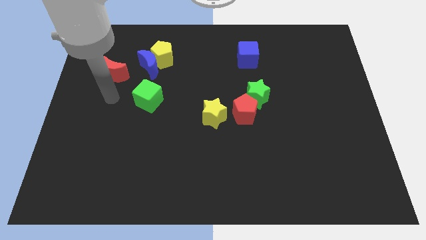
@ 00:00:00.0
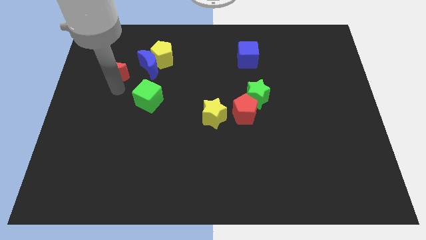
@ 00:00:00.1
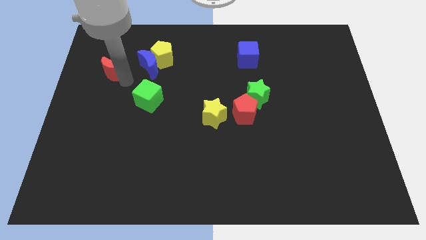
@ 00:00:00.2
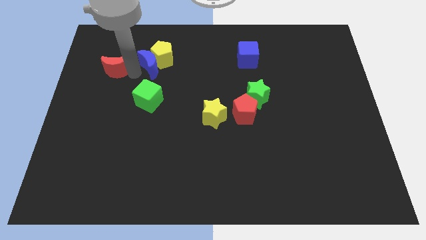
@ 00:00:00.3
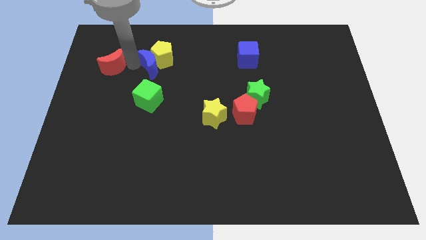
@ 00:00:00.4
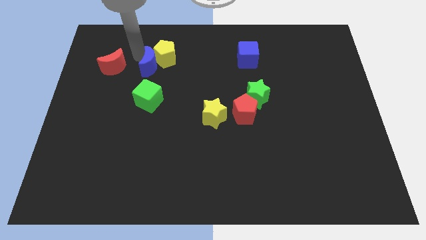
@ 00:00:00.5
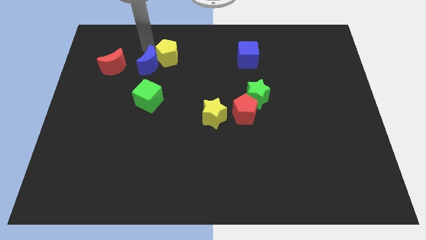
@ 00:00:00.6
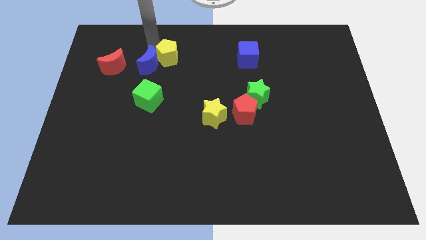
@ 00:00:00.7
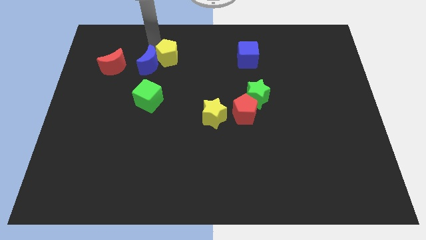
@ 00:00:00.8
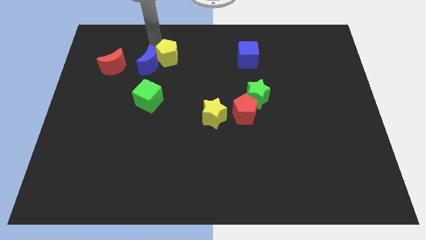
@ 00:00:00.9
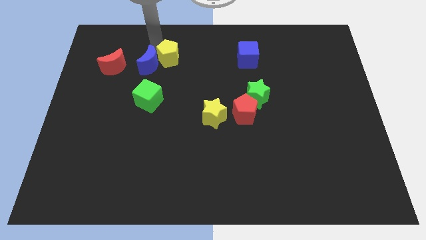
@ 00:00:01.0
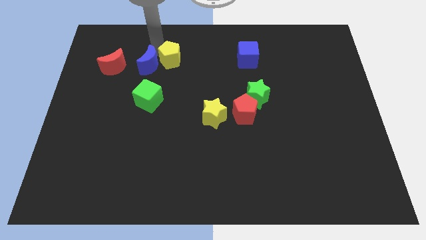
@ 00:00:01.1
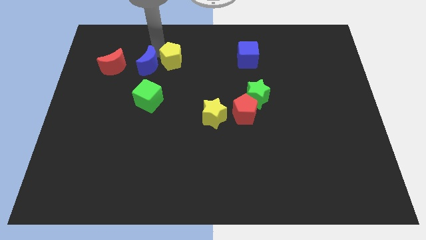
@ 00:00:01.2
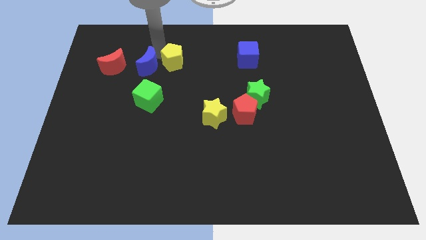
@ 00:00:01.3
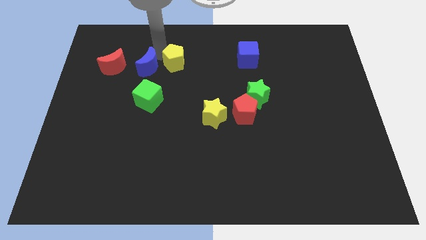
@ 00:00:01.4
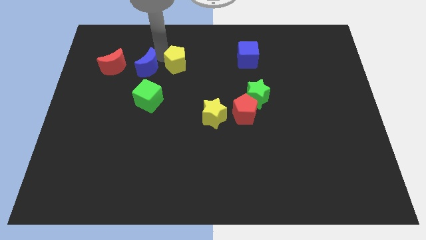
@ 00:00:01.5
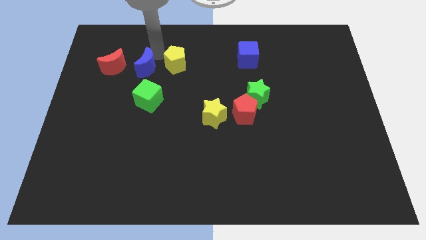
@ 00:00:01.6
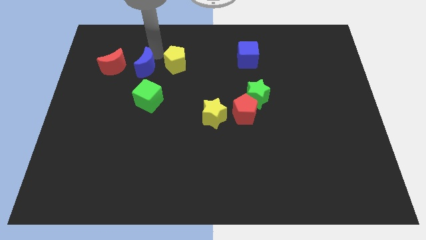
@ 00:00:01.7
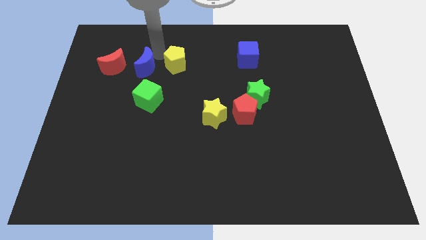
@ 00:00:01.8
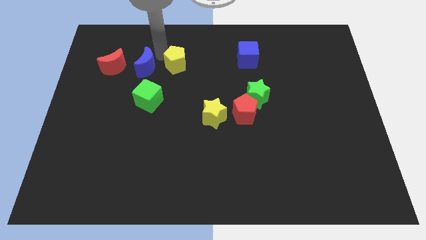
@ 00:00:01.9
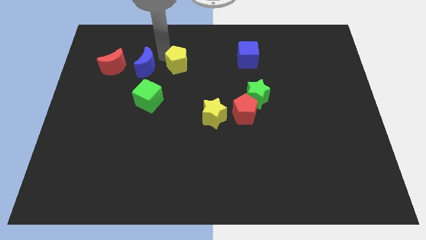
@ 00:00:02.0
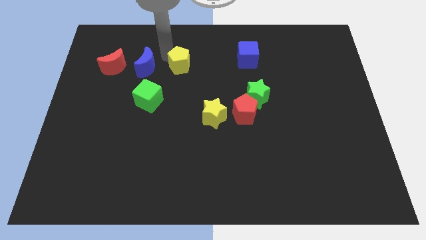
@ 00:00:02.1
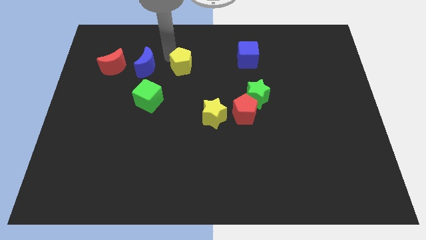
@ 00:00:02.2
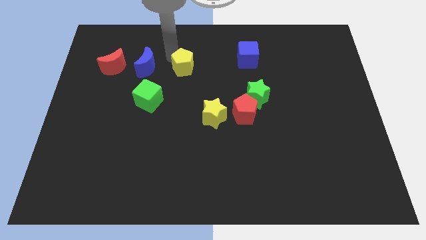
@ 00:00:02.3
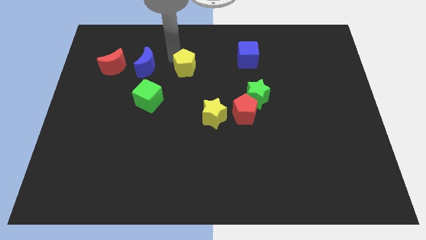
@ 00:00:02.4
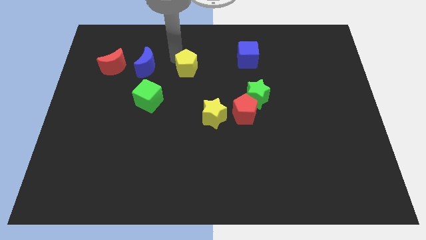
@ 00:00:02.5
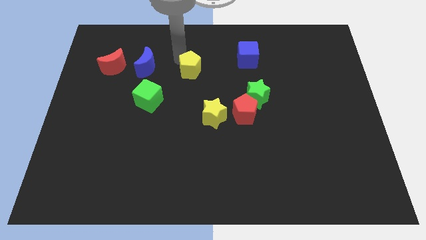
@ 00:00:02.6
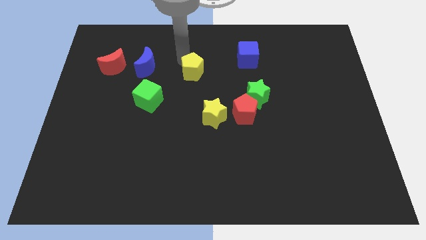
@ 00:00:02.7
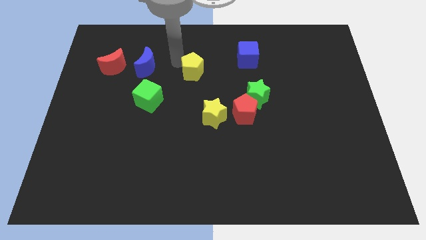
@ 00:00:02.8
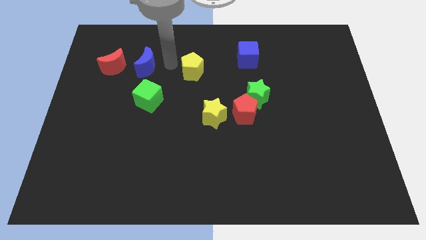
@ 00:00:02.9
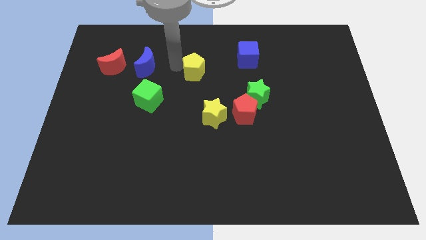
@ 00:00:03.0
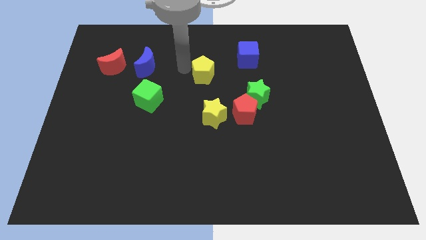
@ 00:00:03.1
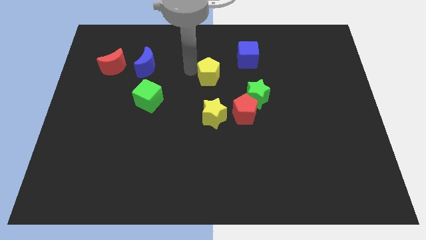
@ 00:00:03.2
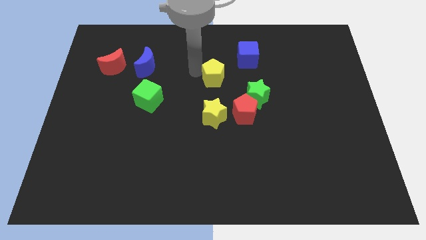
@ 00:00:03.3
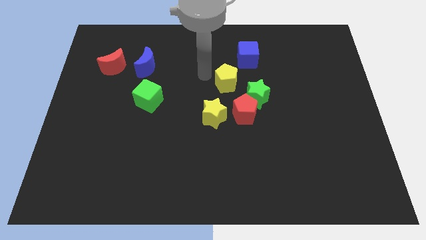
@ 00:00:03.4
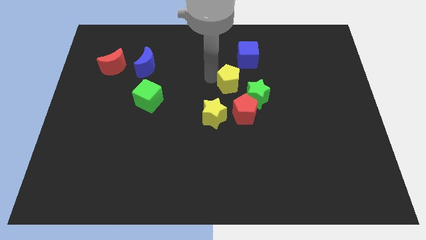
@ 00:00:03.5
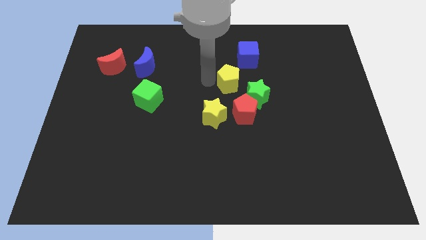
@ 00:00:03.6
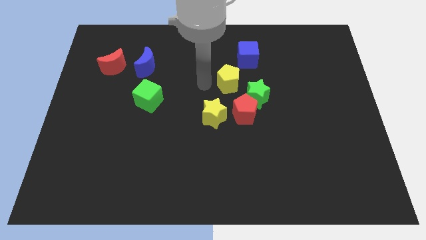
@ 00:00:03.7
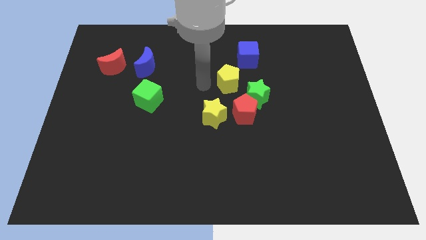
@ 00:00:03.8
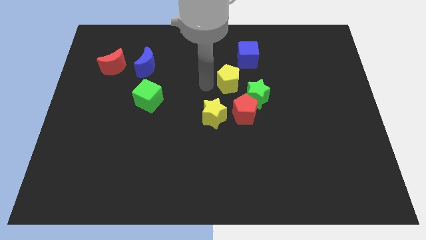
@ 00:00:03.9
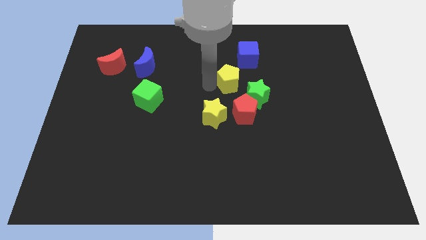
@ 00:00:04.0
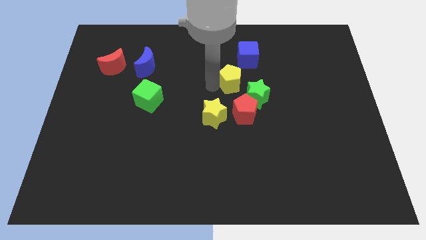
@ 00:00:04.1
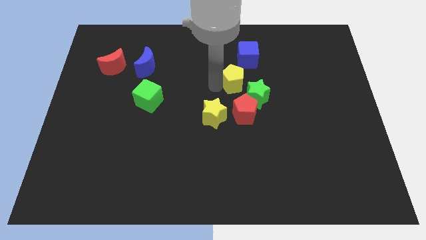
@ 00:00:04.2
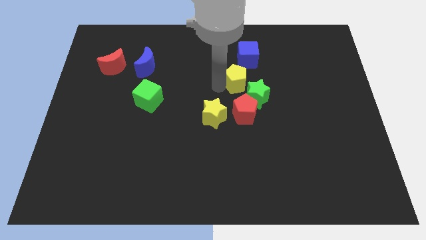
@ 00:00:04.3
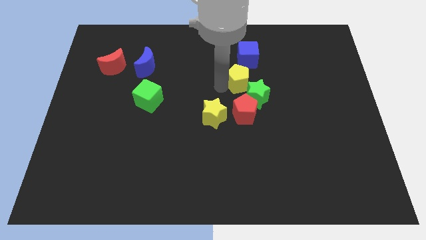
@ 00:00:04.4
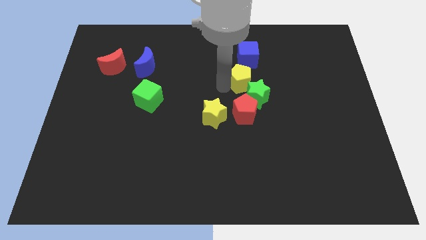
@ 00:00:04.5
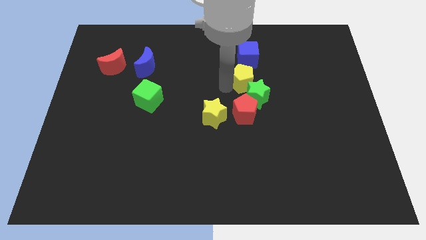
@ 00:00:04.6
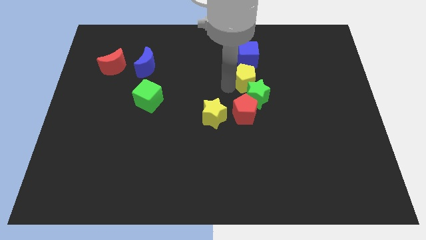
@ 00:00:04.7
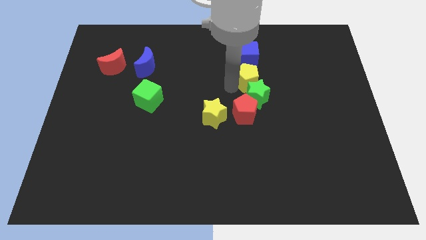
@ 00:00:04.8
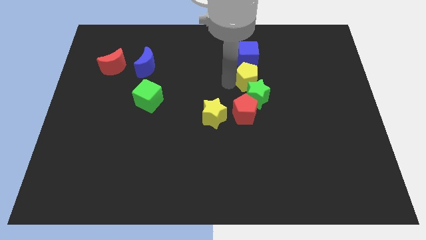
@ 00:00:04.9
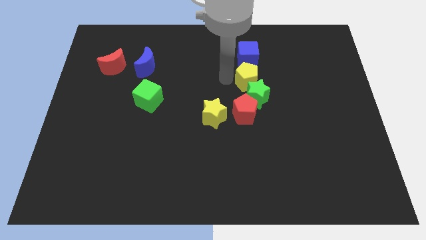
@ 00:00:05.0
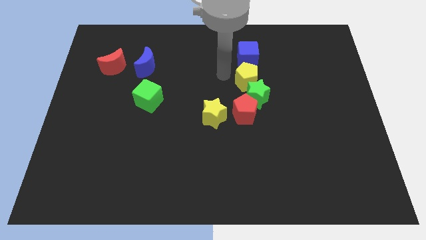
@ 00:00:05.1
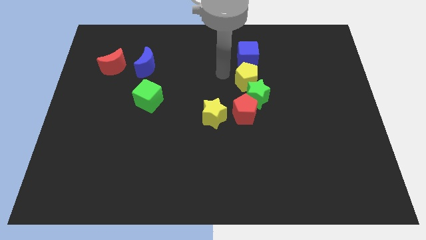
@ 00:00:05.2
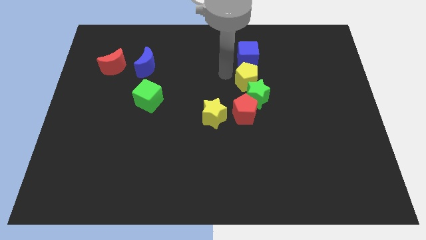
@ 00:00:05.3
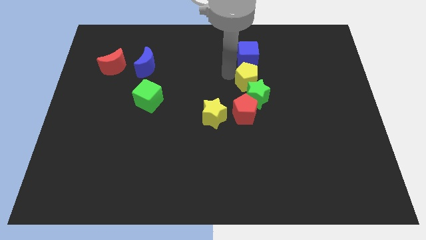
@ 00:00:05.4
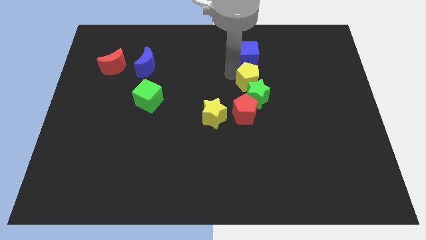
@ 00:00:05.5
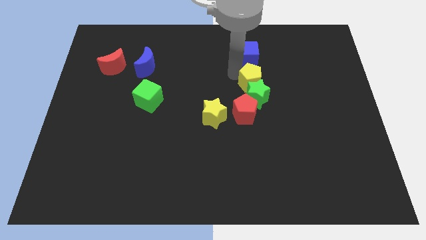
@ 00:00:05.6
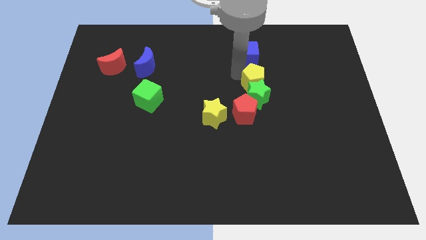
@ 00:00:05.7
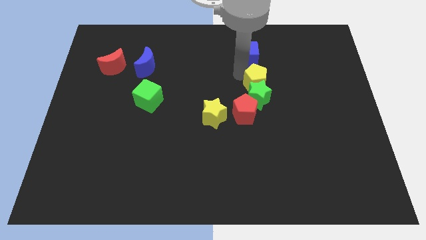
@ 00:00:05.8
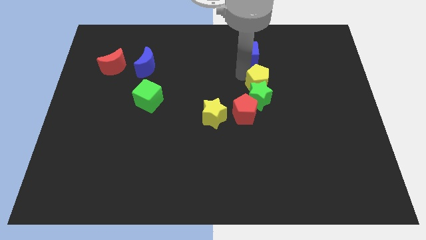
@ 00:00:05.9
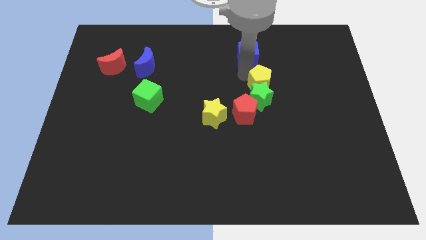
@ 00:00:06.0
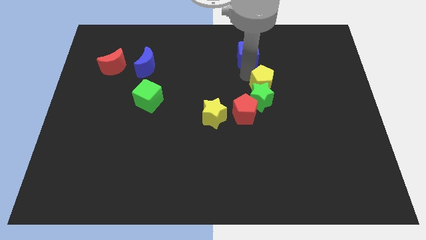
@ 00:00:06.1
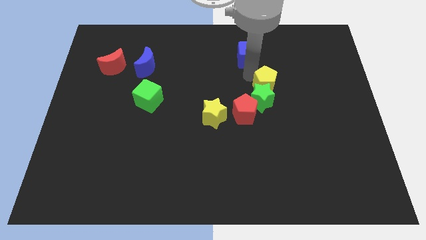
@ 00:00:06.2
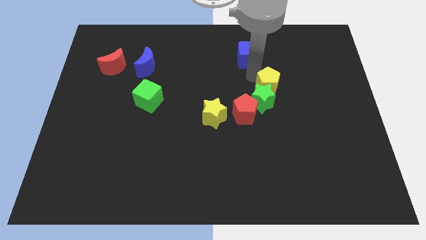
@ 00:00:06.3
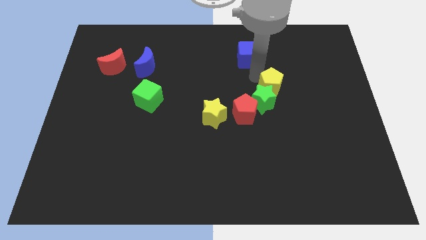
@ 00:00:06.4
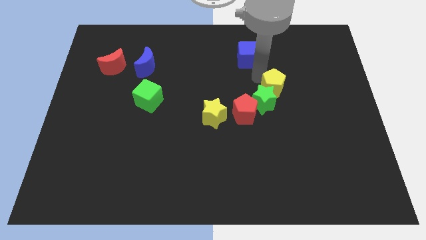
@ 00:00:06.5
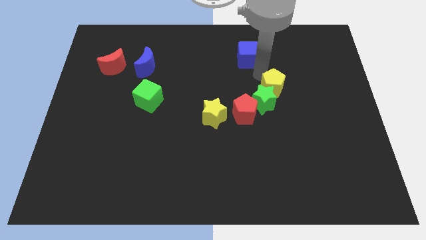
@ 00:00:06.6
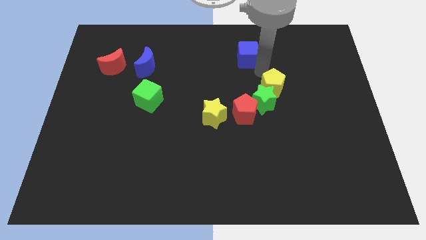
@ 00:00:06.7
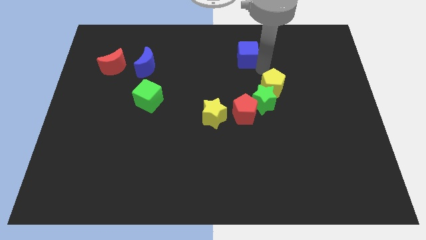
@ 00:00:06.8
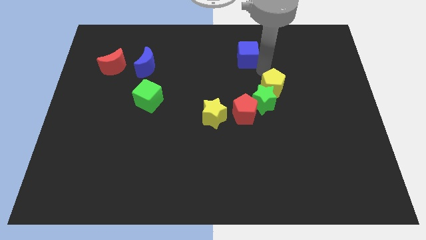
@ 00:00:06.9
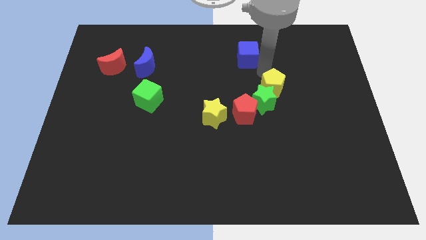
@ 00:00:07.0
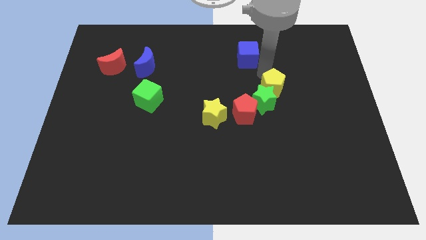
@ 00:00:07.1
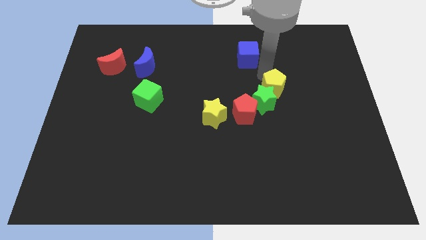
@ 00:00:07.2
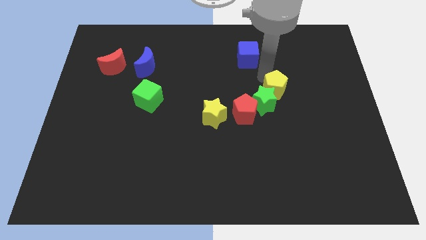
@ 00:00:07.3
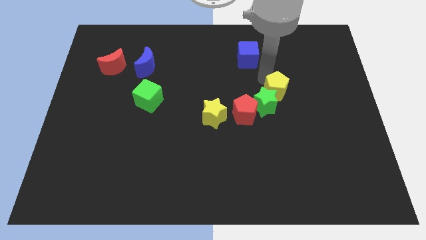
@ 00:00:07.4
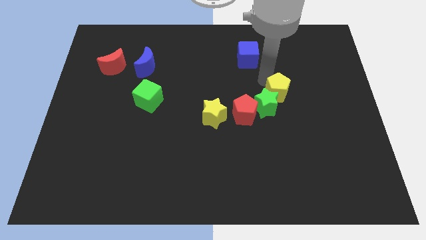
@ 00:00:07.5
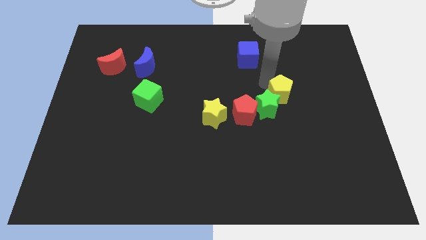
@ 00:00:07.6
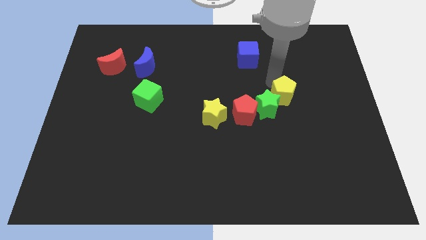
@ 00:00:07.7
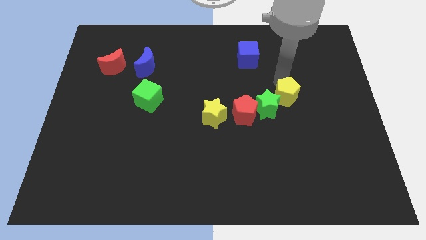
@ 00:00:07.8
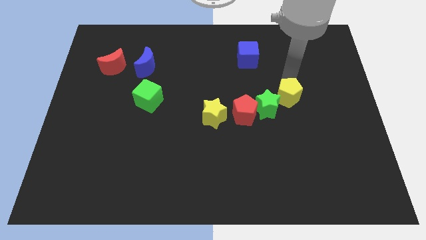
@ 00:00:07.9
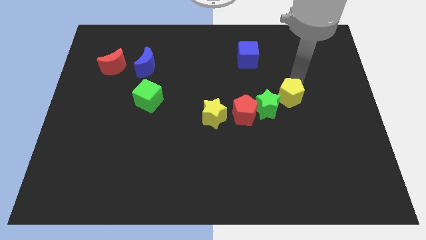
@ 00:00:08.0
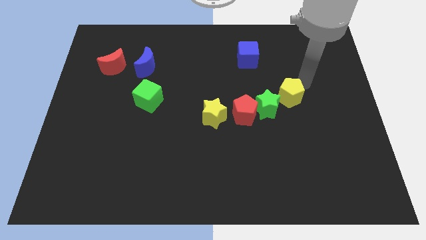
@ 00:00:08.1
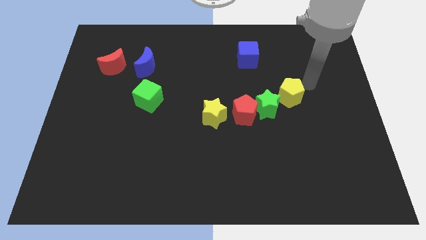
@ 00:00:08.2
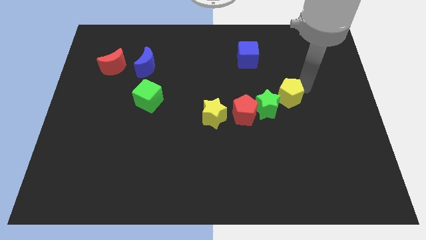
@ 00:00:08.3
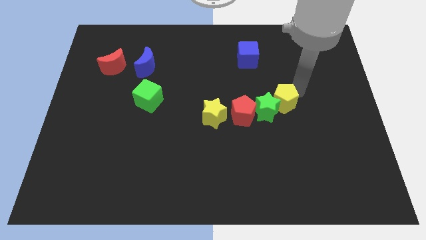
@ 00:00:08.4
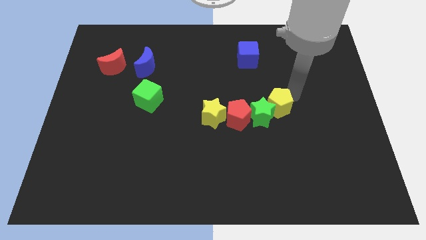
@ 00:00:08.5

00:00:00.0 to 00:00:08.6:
slide the yellow pentagon to the right of the yellow star
